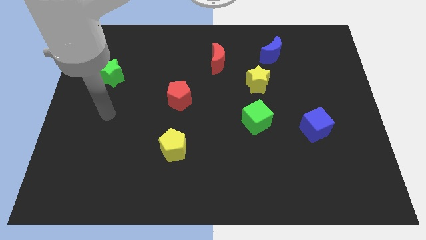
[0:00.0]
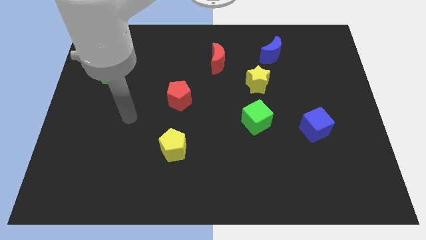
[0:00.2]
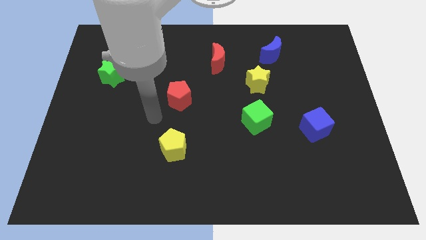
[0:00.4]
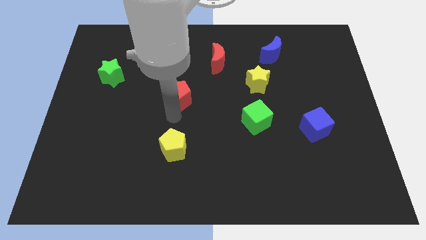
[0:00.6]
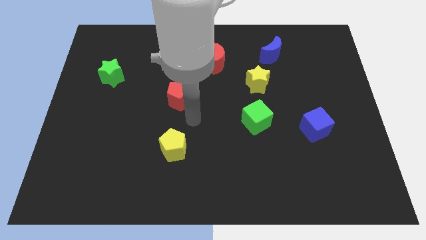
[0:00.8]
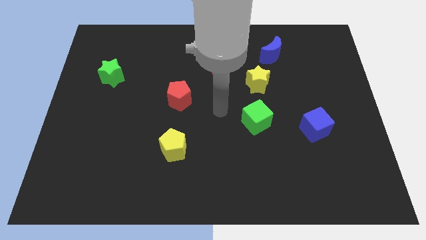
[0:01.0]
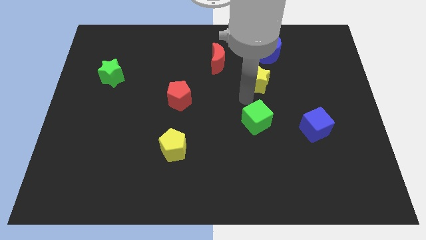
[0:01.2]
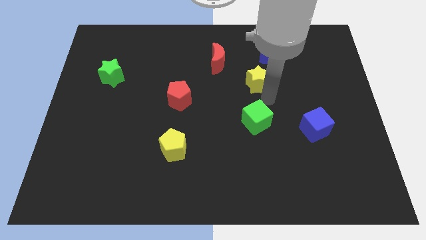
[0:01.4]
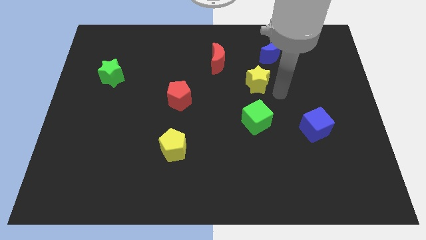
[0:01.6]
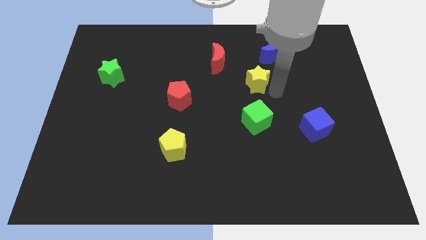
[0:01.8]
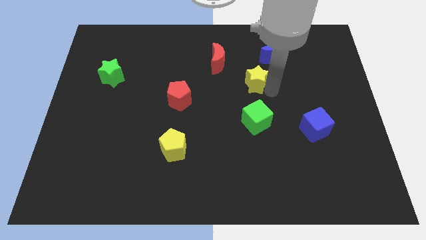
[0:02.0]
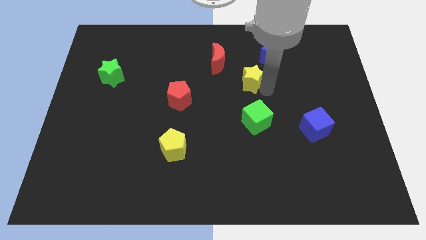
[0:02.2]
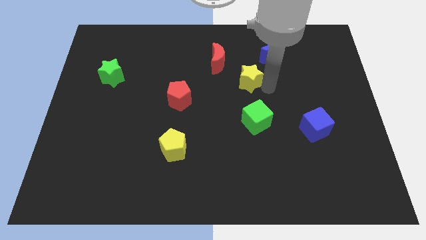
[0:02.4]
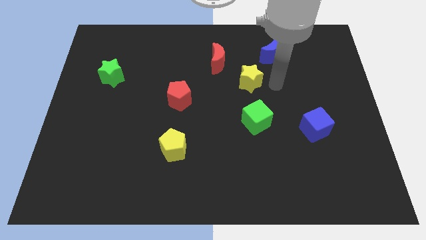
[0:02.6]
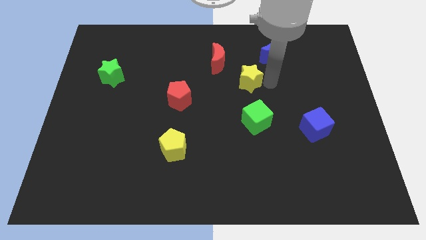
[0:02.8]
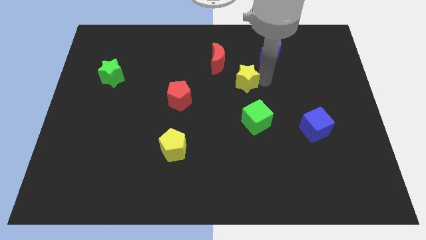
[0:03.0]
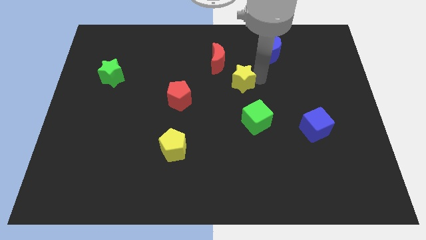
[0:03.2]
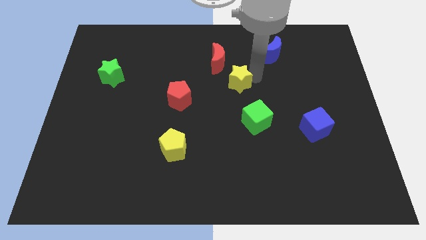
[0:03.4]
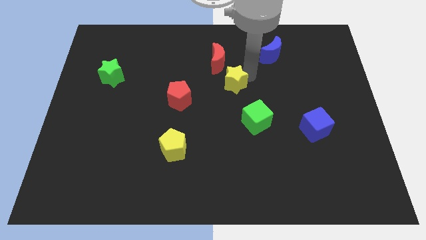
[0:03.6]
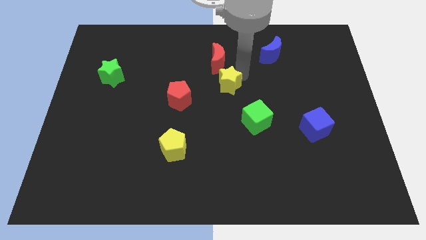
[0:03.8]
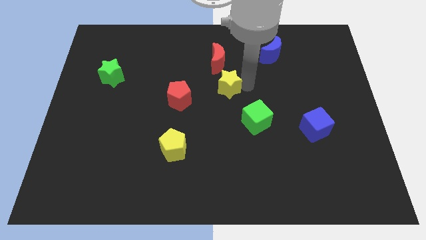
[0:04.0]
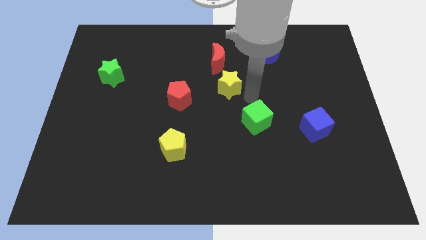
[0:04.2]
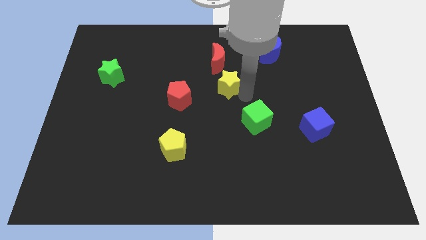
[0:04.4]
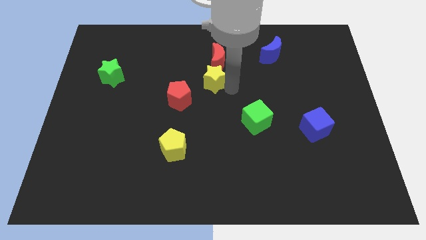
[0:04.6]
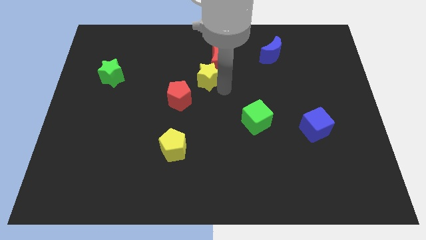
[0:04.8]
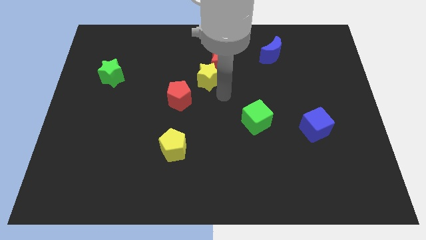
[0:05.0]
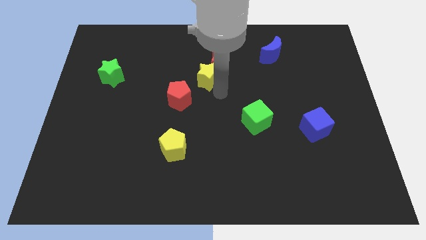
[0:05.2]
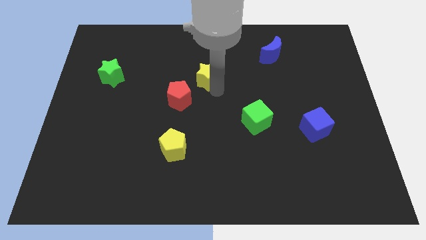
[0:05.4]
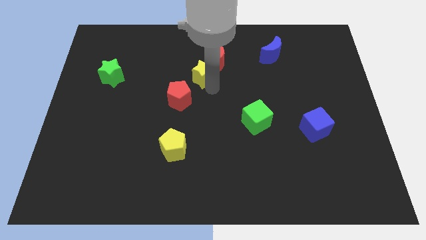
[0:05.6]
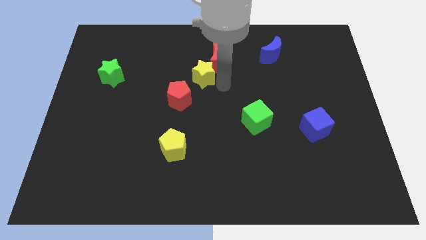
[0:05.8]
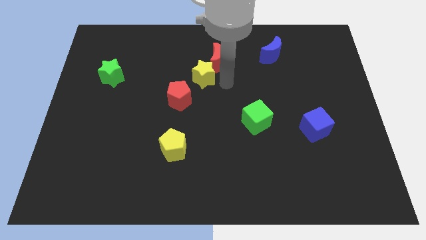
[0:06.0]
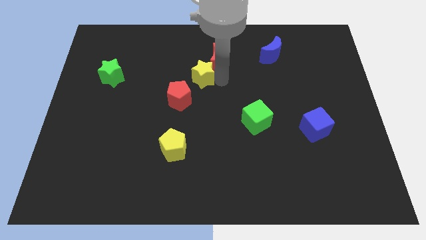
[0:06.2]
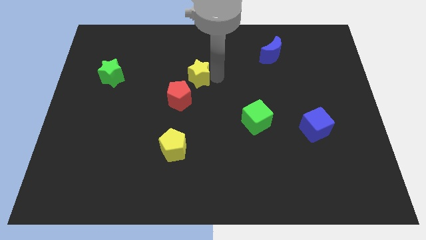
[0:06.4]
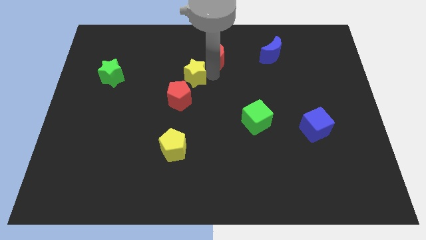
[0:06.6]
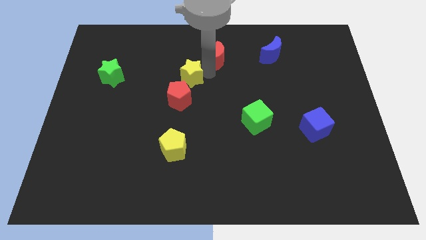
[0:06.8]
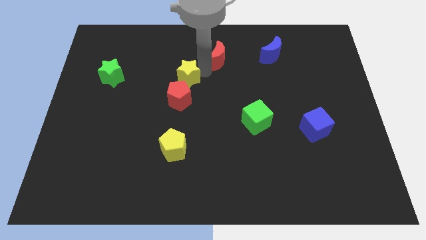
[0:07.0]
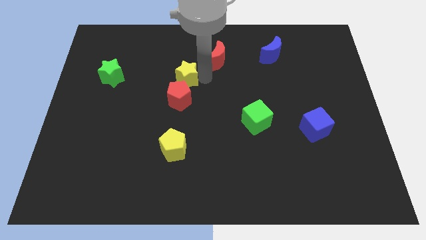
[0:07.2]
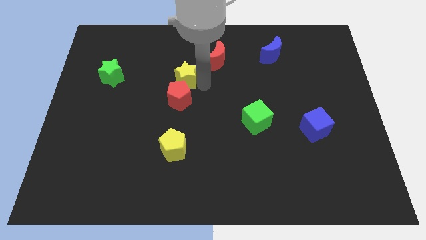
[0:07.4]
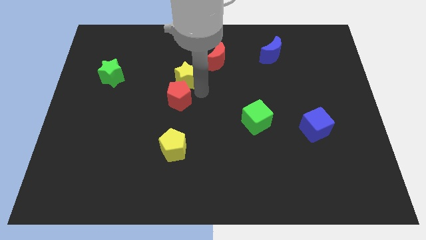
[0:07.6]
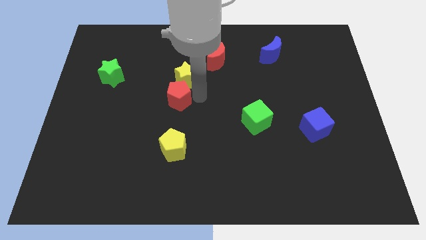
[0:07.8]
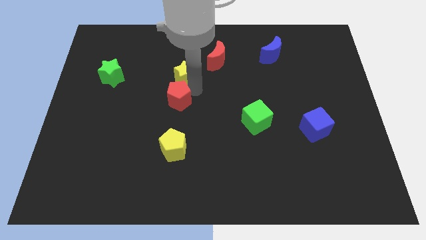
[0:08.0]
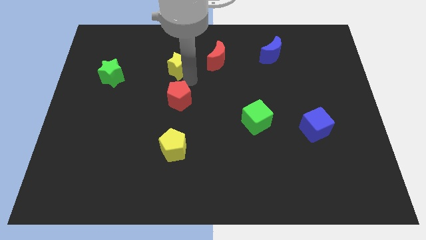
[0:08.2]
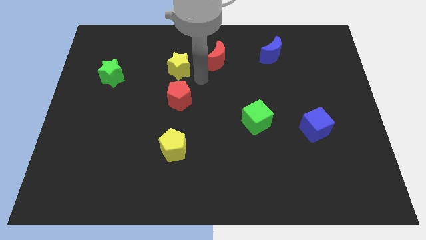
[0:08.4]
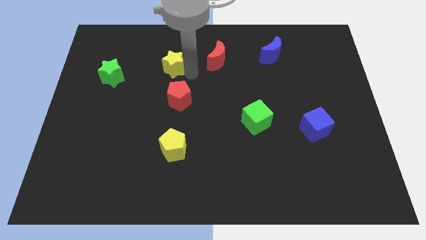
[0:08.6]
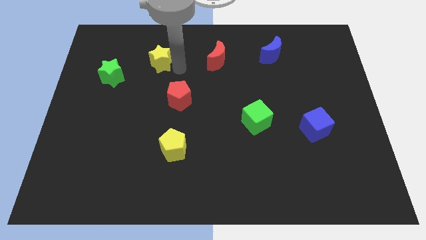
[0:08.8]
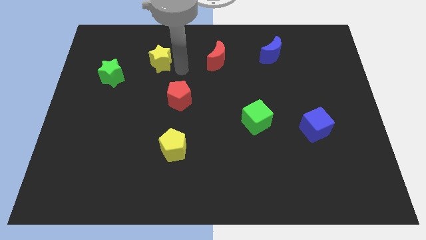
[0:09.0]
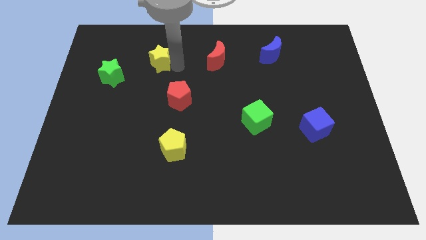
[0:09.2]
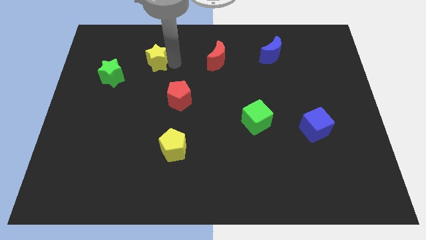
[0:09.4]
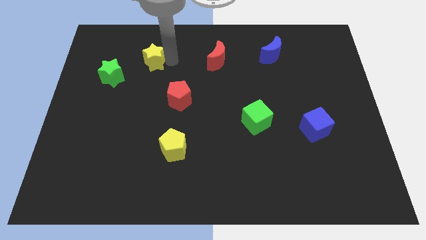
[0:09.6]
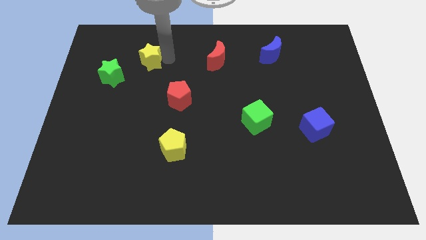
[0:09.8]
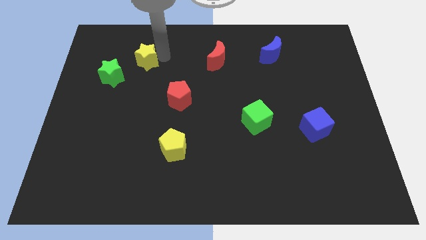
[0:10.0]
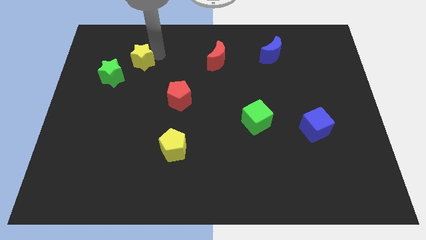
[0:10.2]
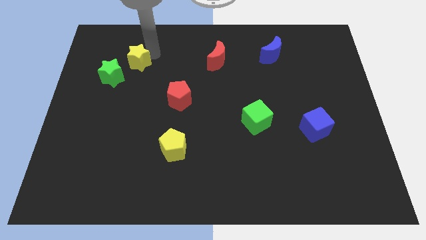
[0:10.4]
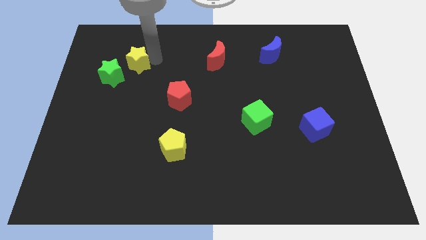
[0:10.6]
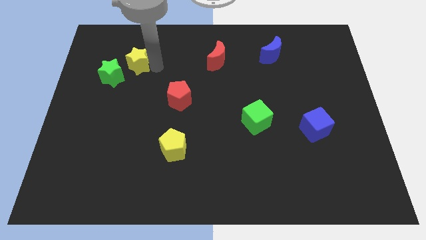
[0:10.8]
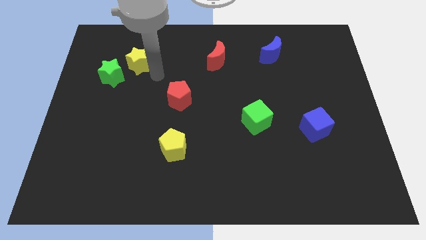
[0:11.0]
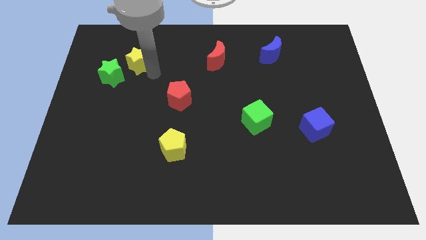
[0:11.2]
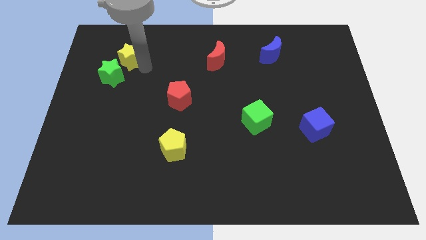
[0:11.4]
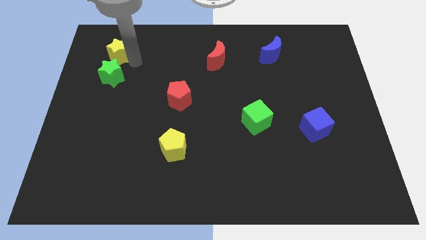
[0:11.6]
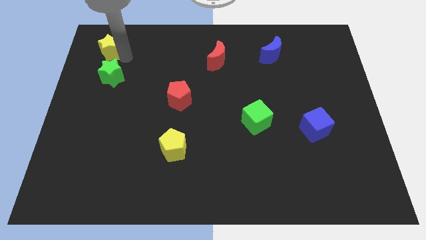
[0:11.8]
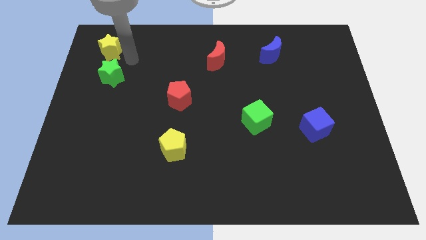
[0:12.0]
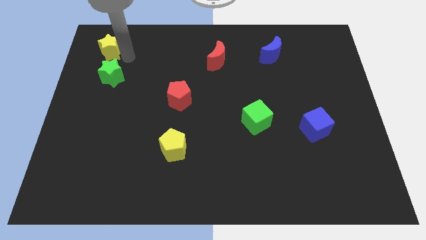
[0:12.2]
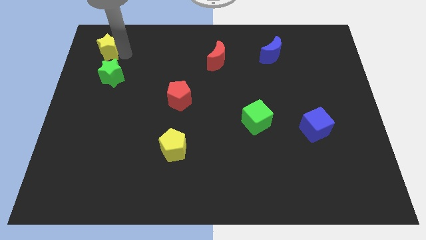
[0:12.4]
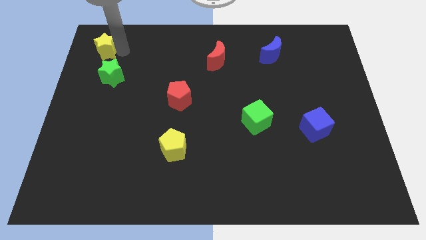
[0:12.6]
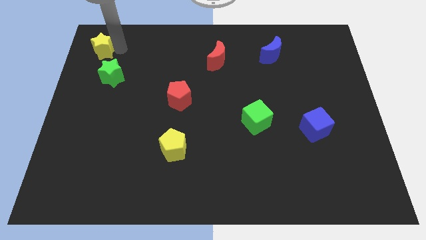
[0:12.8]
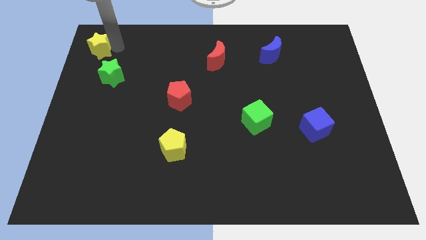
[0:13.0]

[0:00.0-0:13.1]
move the yellow star to the upper left corner
